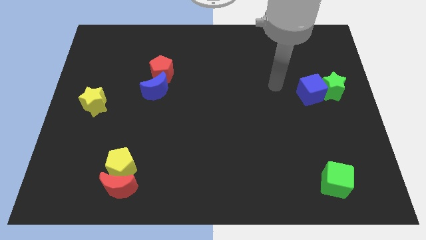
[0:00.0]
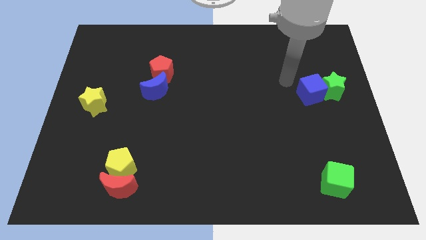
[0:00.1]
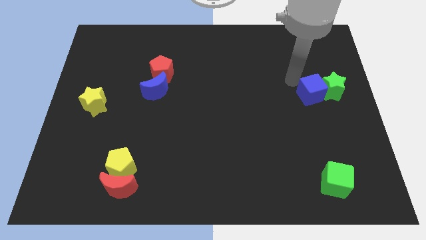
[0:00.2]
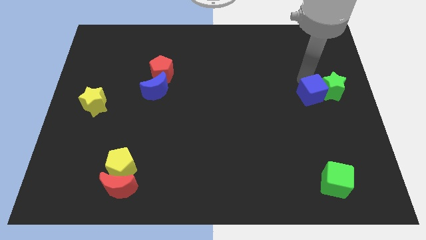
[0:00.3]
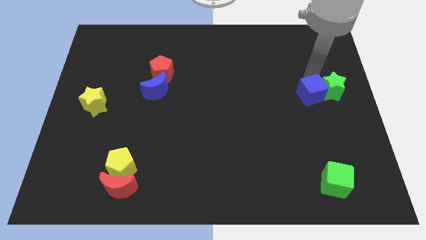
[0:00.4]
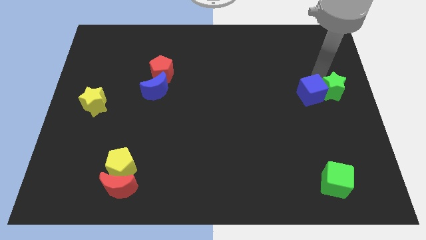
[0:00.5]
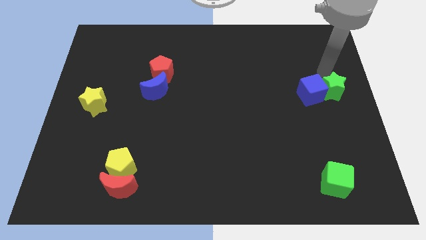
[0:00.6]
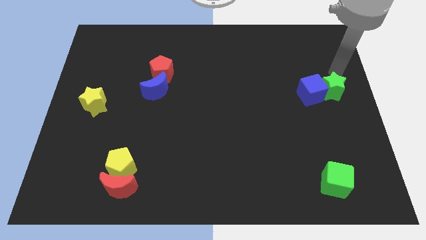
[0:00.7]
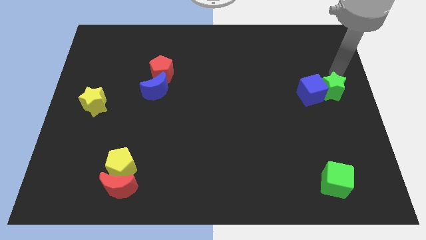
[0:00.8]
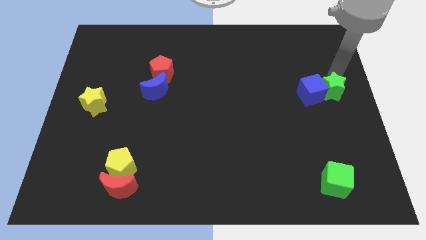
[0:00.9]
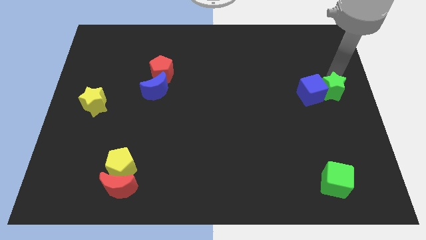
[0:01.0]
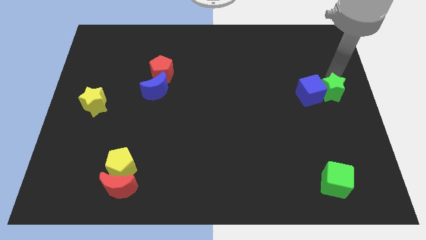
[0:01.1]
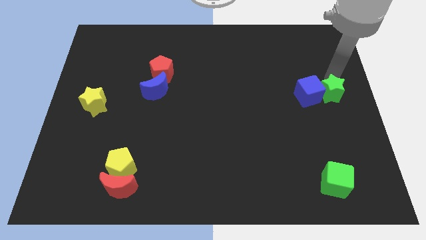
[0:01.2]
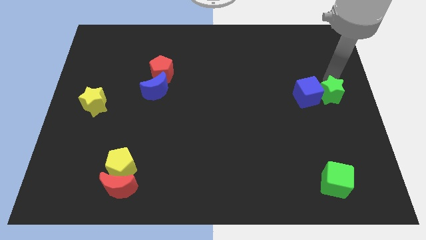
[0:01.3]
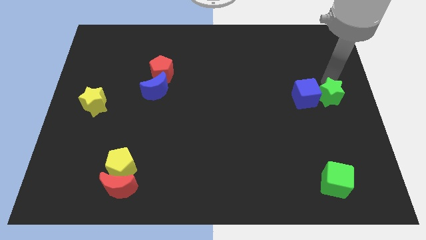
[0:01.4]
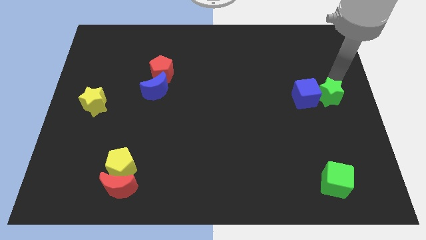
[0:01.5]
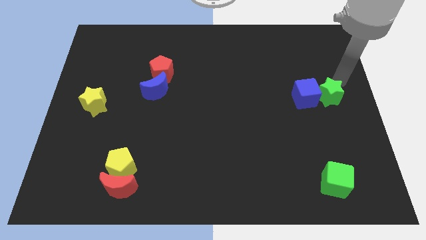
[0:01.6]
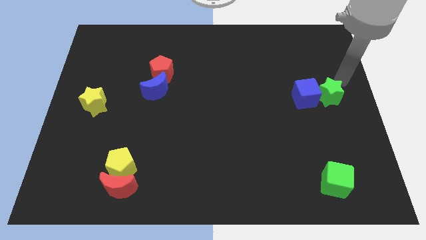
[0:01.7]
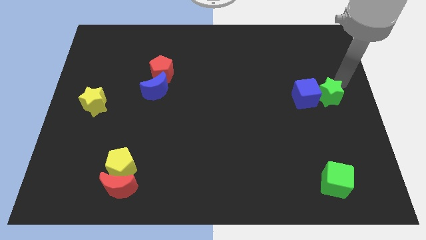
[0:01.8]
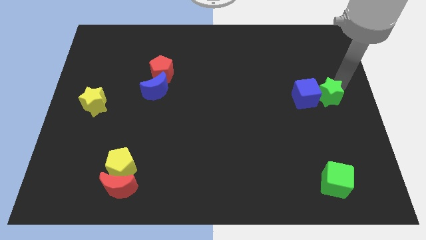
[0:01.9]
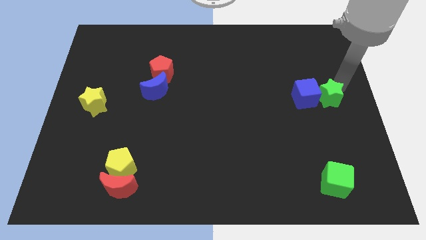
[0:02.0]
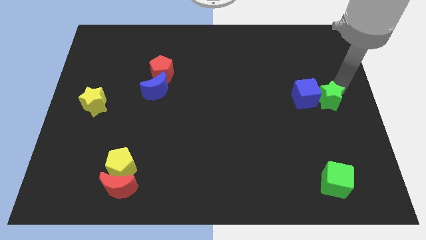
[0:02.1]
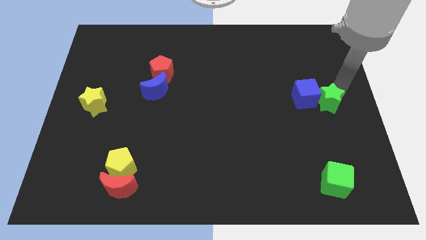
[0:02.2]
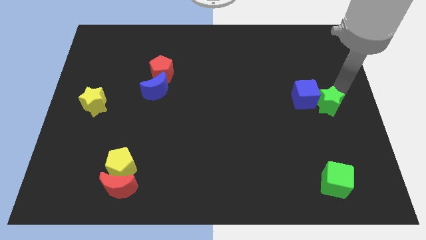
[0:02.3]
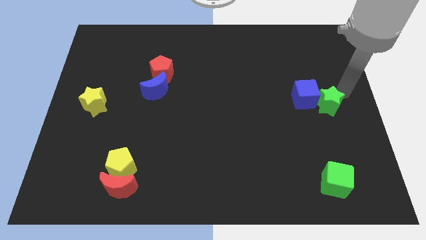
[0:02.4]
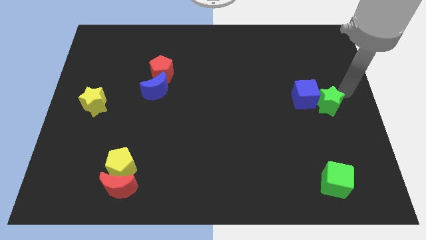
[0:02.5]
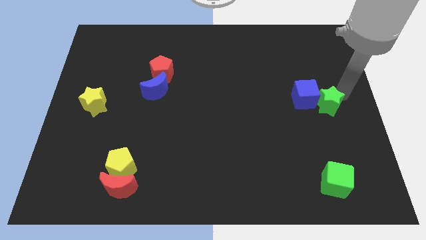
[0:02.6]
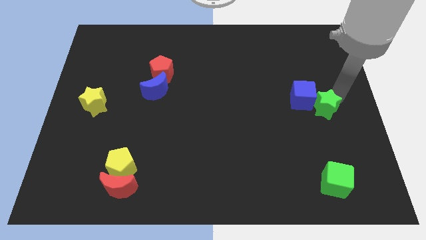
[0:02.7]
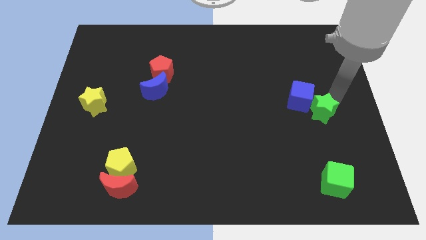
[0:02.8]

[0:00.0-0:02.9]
move the green star downwards and then to the left a little bit

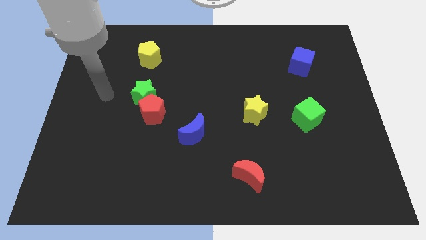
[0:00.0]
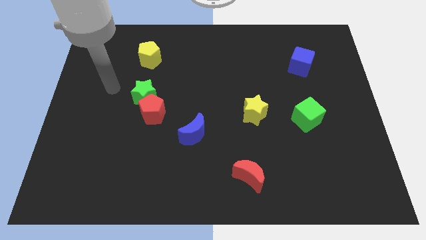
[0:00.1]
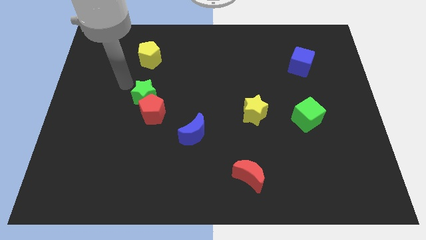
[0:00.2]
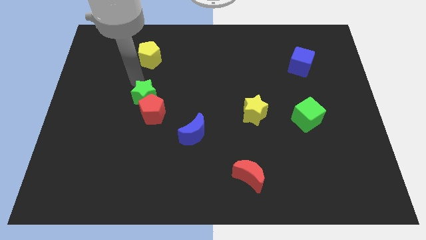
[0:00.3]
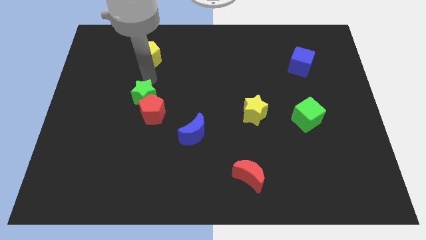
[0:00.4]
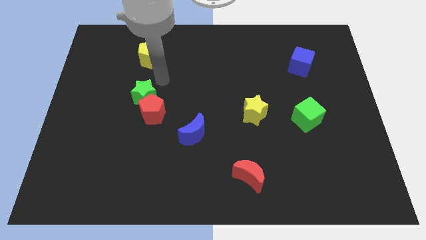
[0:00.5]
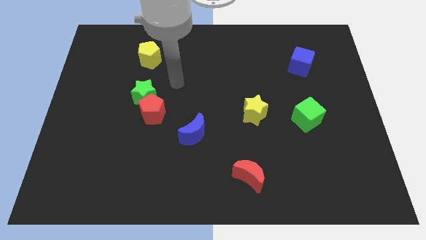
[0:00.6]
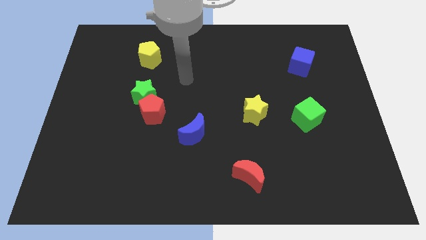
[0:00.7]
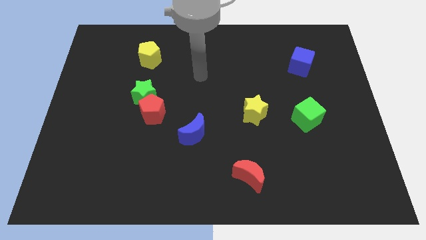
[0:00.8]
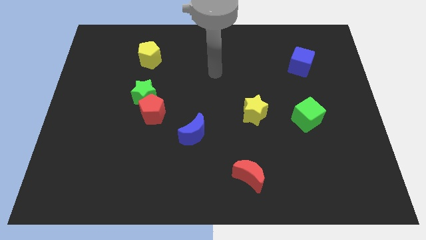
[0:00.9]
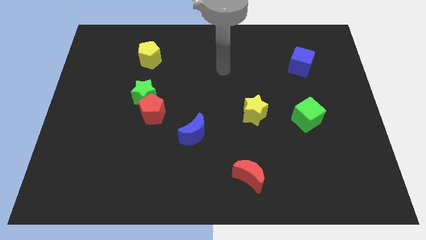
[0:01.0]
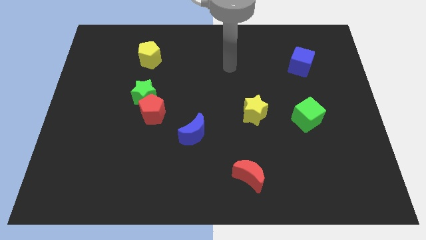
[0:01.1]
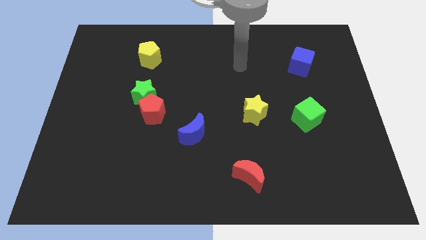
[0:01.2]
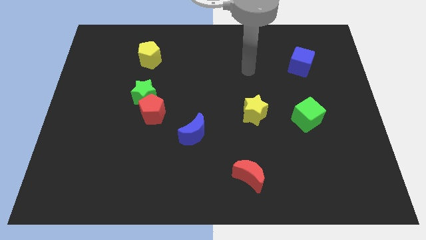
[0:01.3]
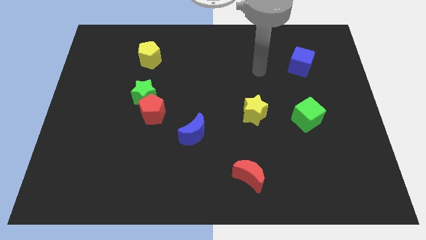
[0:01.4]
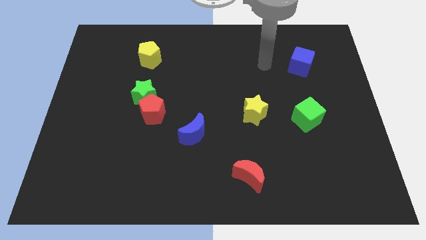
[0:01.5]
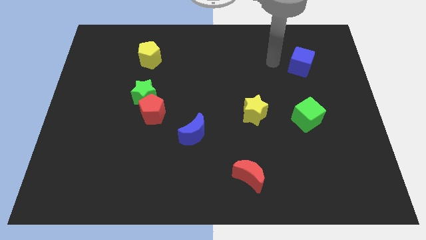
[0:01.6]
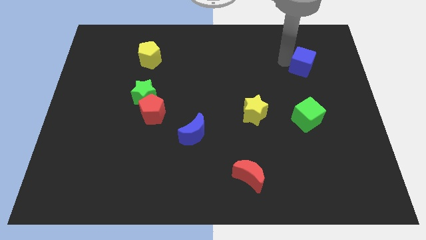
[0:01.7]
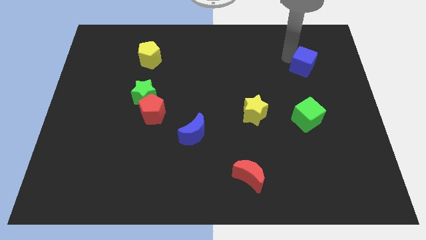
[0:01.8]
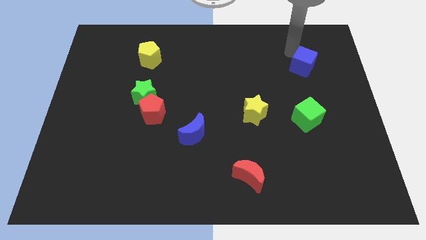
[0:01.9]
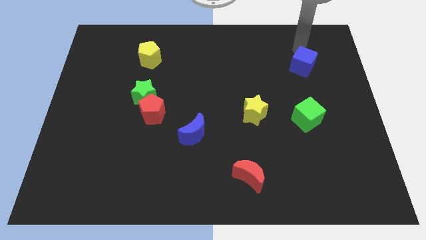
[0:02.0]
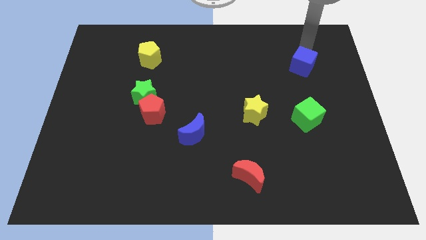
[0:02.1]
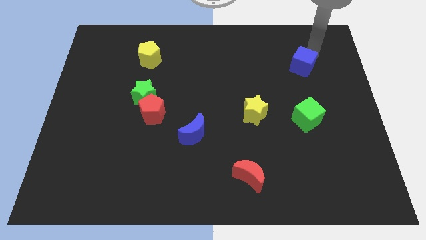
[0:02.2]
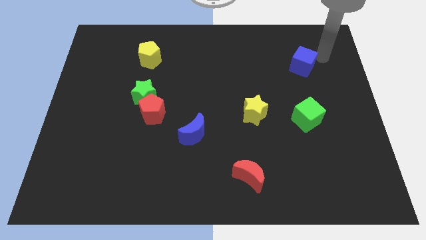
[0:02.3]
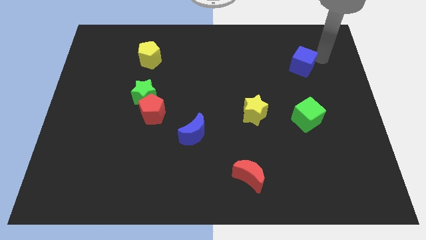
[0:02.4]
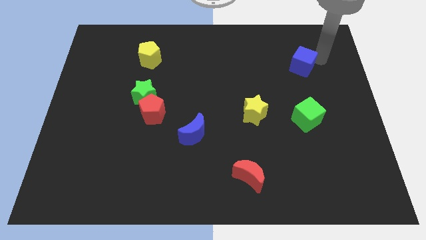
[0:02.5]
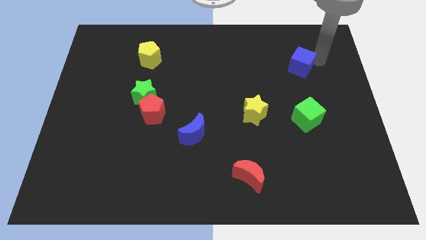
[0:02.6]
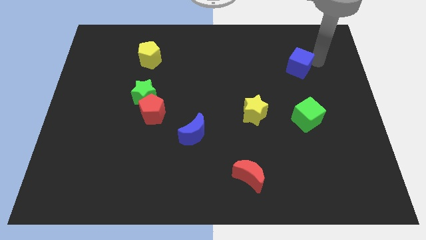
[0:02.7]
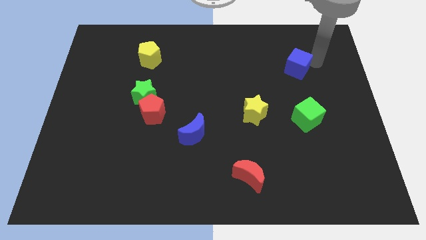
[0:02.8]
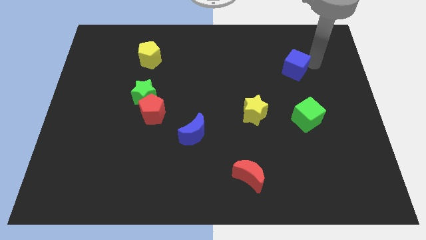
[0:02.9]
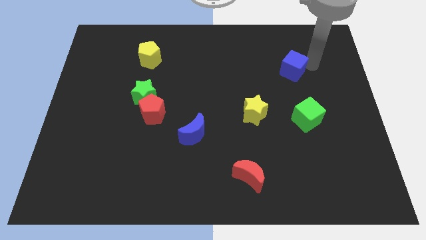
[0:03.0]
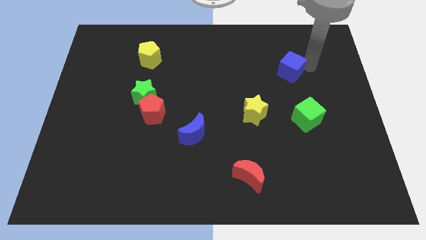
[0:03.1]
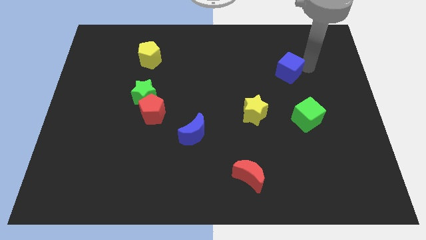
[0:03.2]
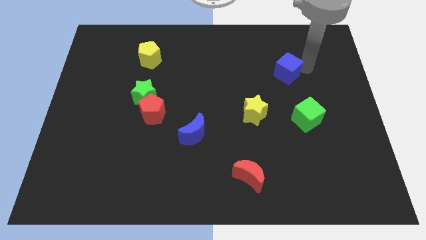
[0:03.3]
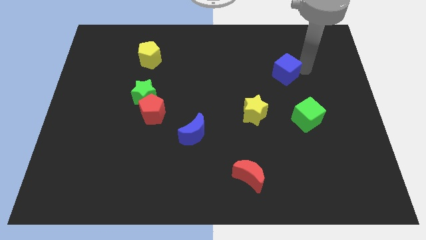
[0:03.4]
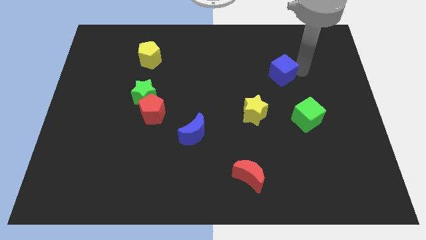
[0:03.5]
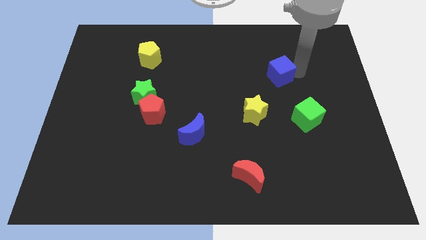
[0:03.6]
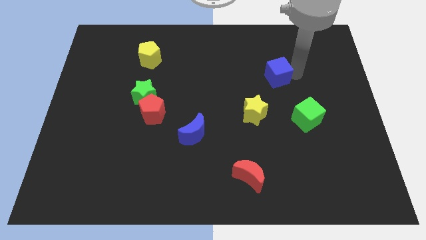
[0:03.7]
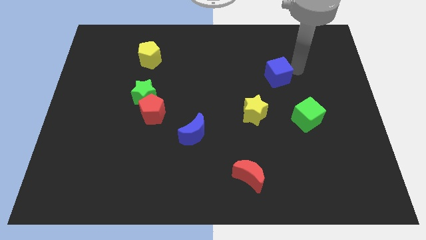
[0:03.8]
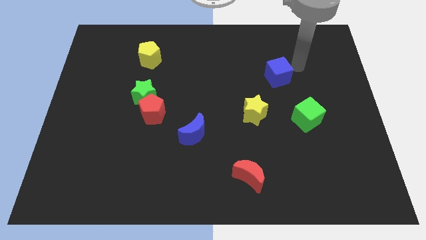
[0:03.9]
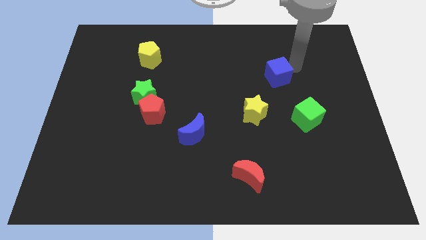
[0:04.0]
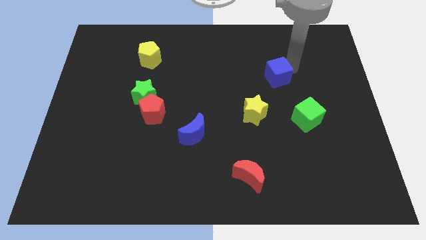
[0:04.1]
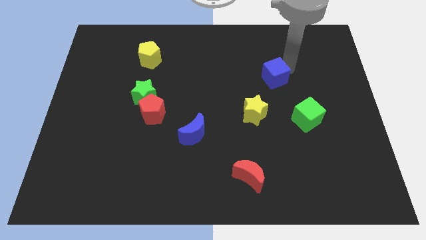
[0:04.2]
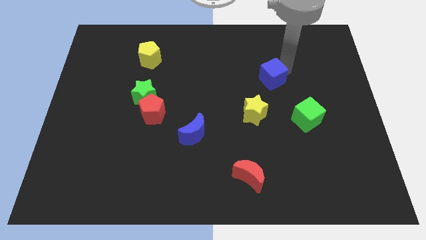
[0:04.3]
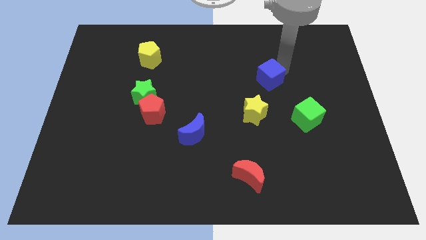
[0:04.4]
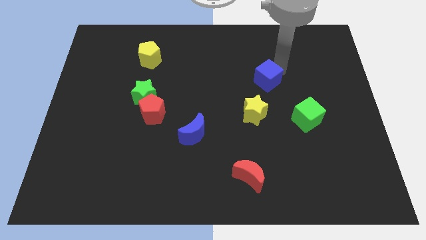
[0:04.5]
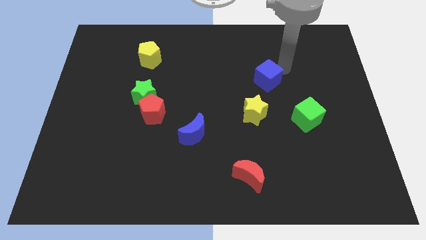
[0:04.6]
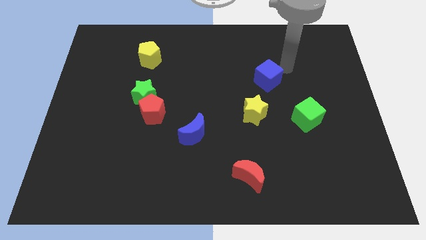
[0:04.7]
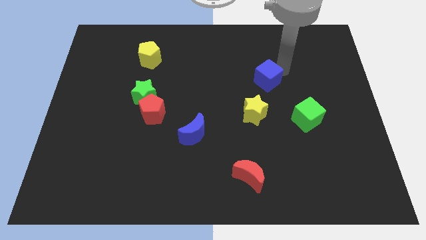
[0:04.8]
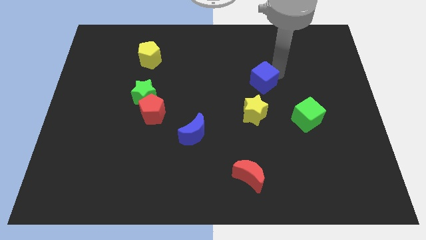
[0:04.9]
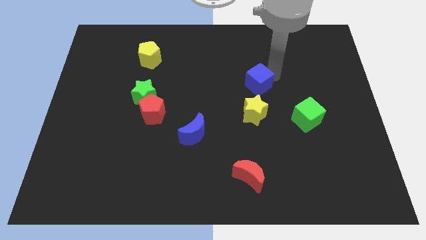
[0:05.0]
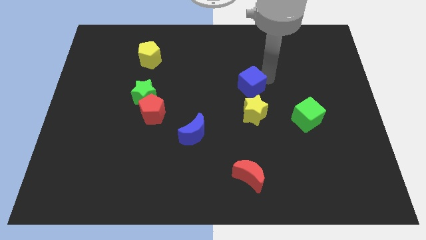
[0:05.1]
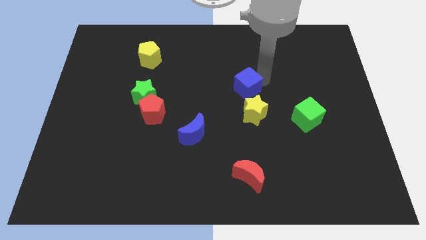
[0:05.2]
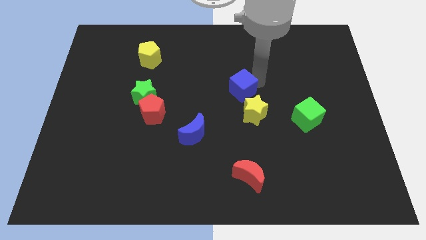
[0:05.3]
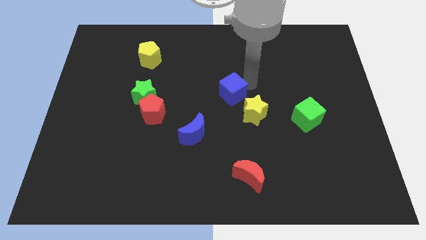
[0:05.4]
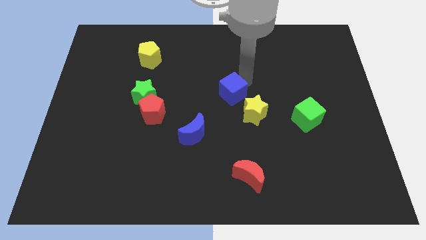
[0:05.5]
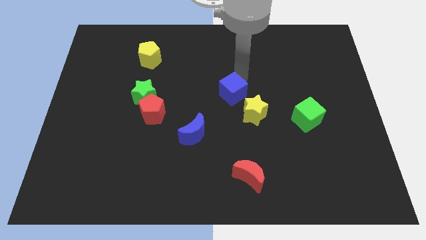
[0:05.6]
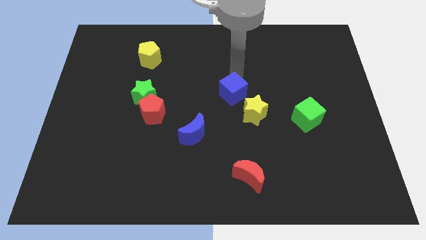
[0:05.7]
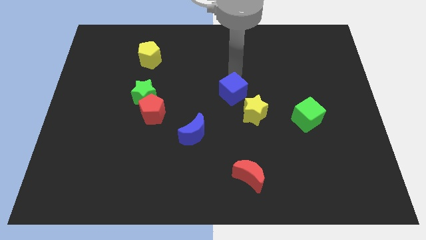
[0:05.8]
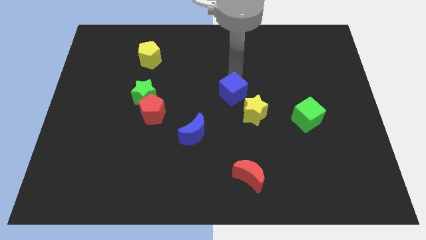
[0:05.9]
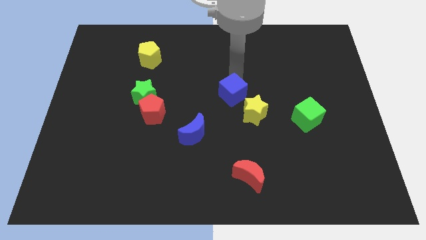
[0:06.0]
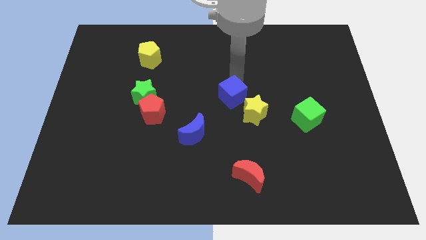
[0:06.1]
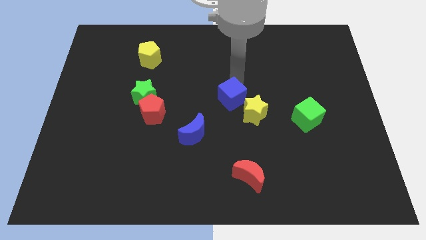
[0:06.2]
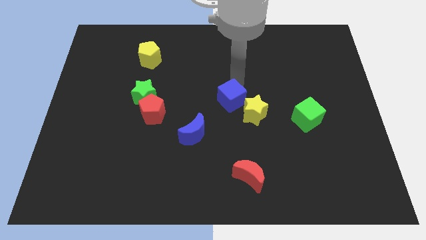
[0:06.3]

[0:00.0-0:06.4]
push the blue cube downwards and to the left diagonally
